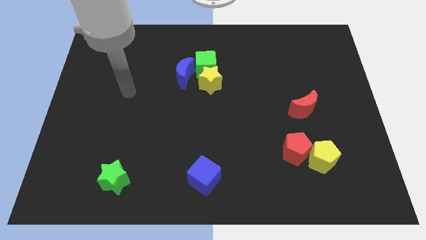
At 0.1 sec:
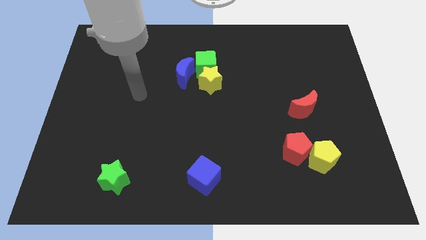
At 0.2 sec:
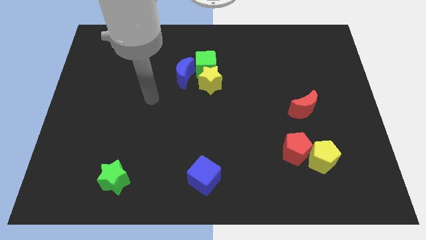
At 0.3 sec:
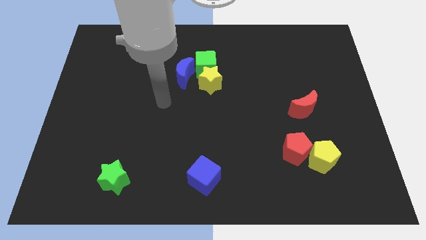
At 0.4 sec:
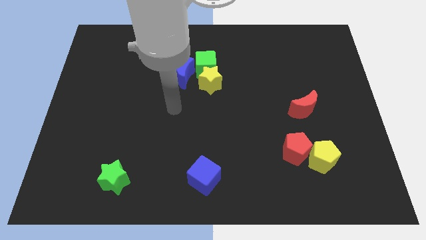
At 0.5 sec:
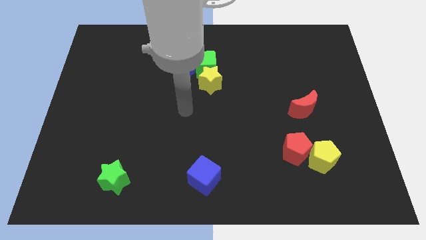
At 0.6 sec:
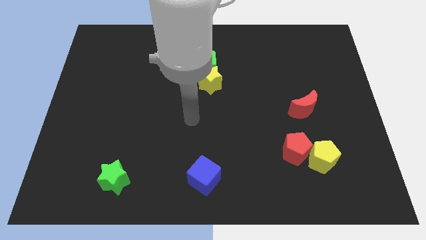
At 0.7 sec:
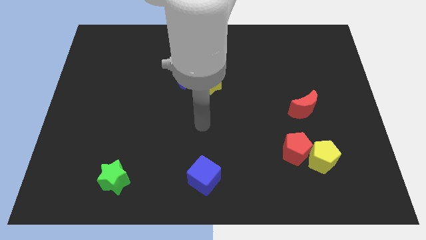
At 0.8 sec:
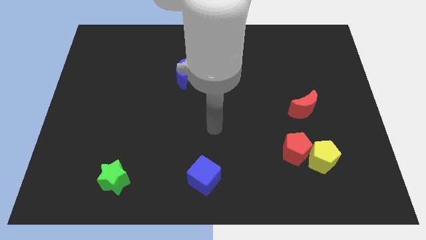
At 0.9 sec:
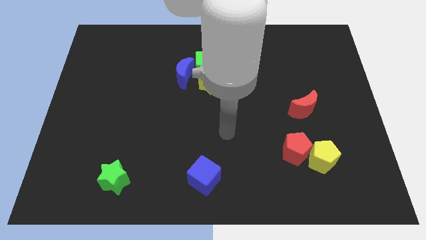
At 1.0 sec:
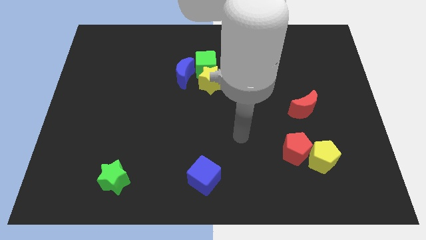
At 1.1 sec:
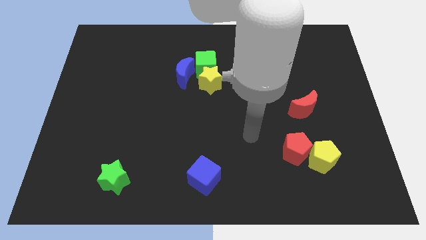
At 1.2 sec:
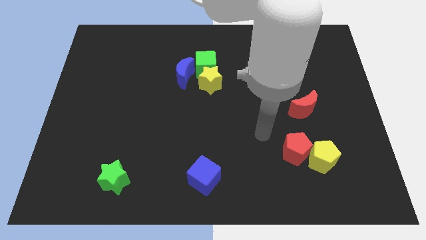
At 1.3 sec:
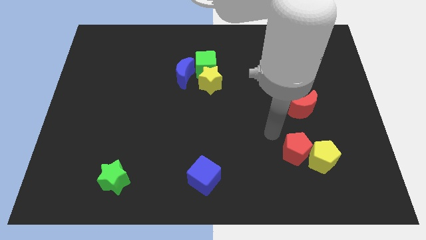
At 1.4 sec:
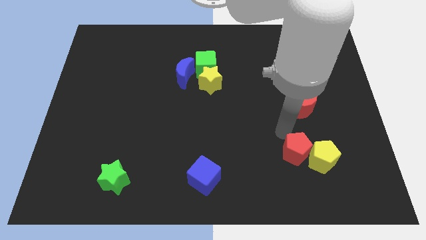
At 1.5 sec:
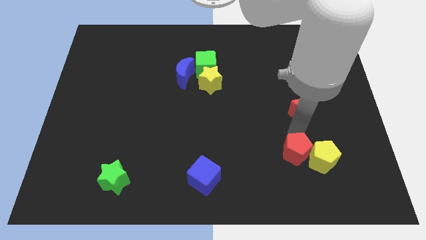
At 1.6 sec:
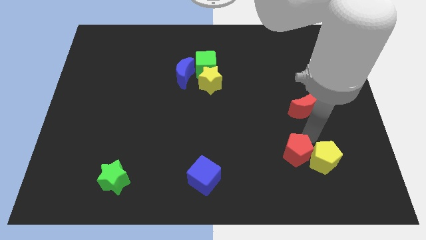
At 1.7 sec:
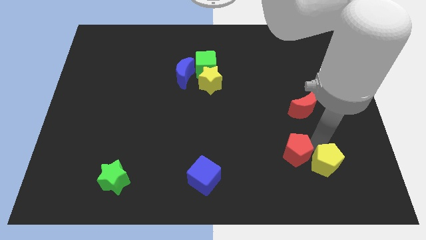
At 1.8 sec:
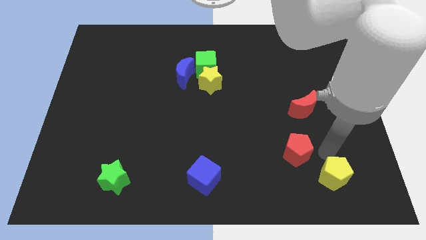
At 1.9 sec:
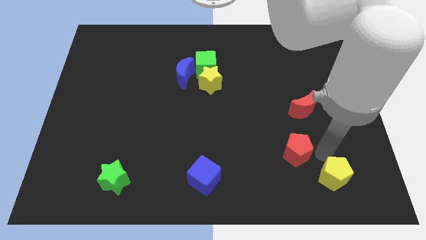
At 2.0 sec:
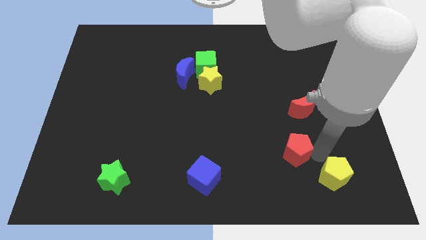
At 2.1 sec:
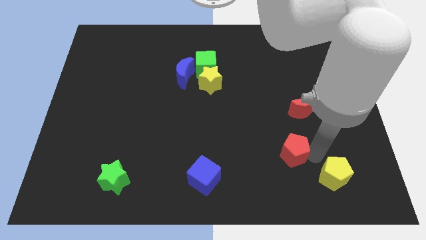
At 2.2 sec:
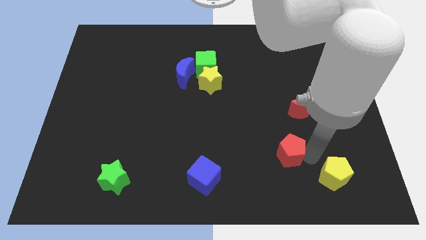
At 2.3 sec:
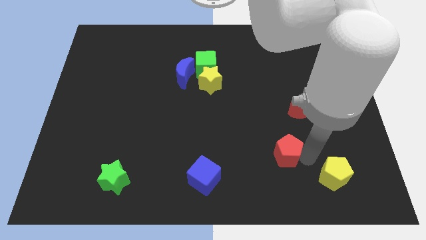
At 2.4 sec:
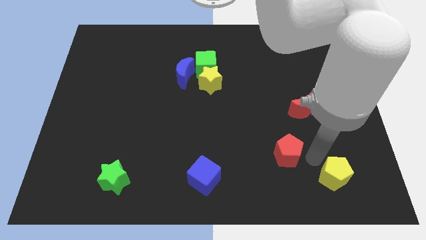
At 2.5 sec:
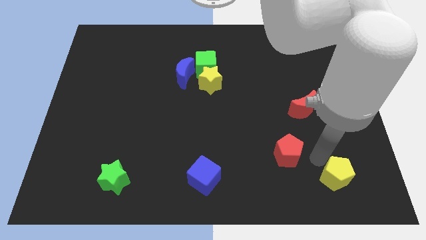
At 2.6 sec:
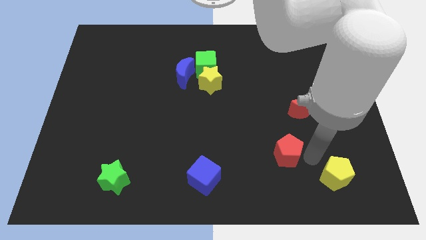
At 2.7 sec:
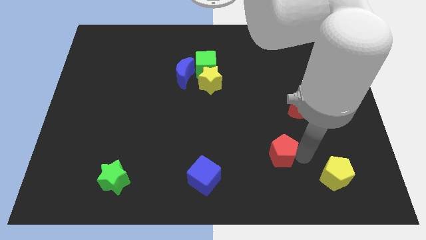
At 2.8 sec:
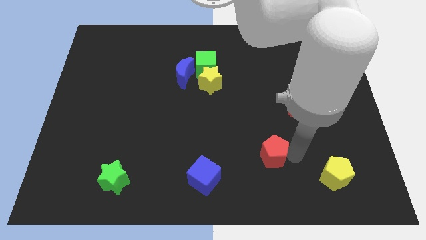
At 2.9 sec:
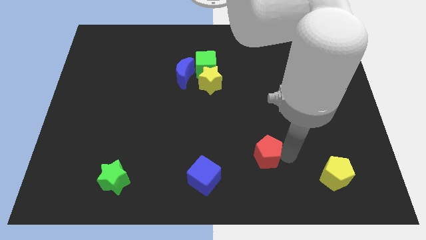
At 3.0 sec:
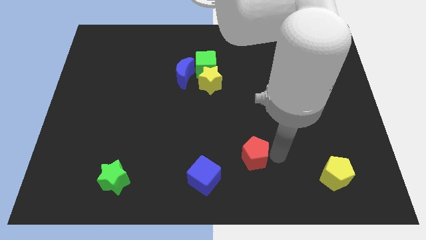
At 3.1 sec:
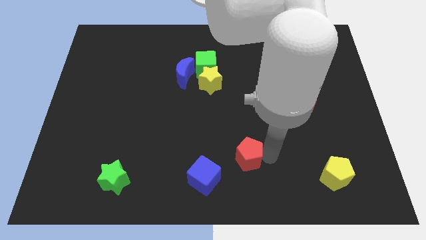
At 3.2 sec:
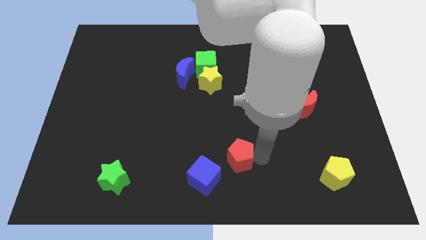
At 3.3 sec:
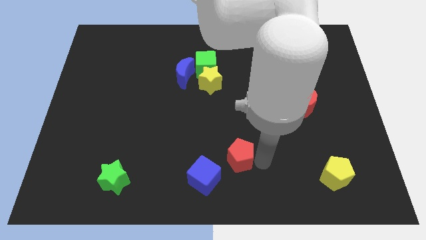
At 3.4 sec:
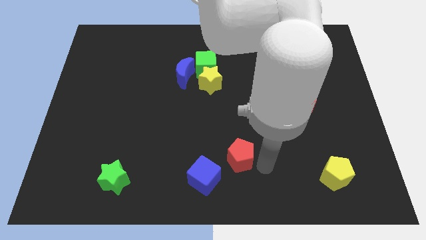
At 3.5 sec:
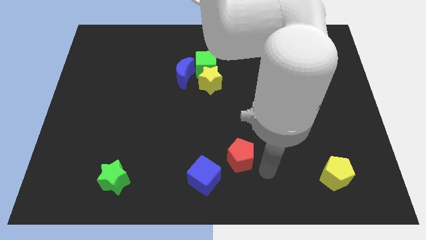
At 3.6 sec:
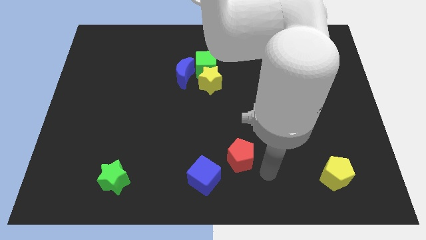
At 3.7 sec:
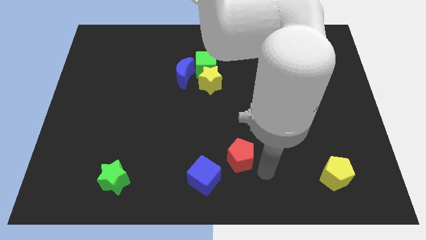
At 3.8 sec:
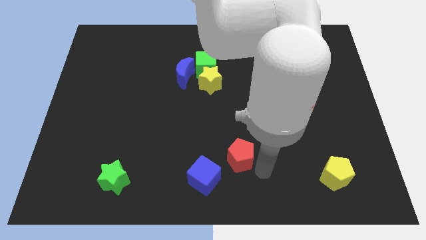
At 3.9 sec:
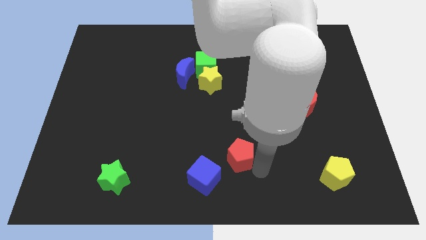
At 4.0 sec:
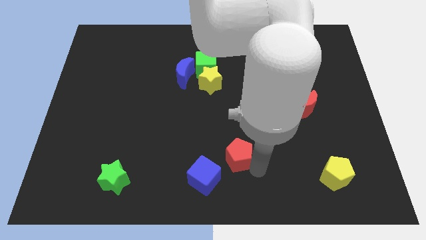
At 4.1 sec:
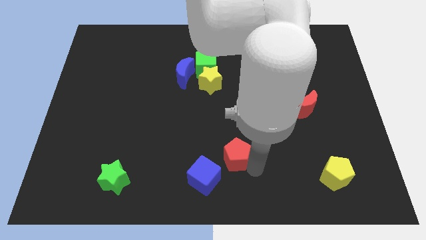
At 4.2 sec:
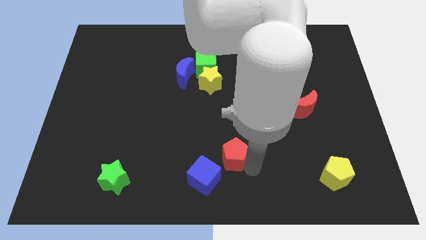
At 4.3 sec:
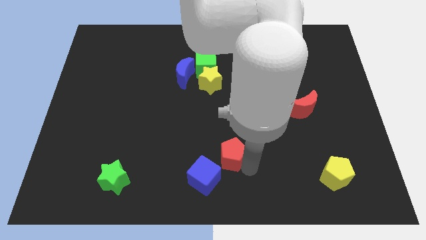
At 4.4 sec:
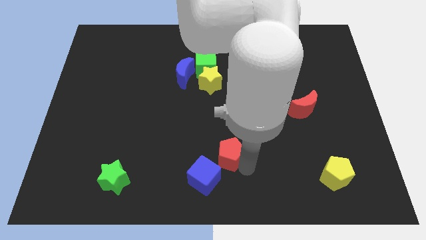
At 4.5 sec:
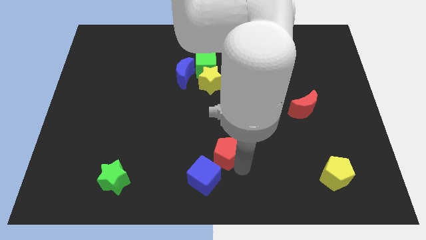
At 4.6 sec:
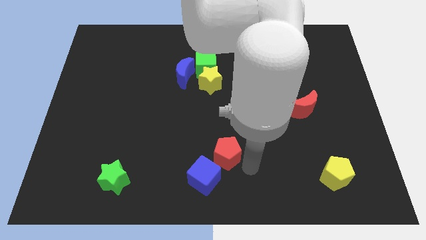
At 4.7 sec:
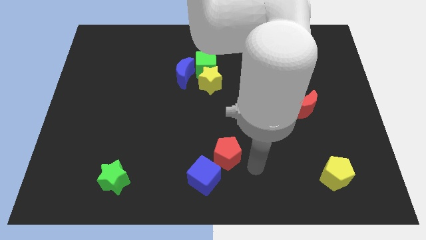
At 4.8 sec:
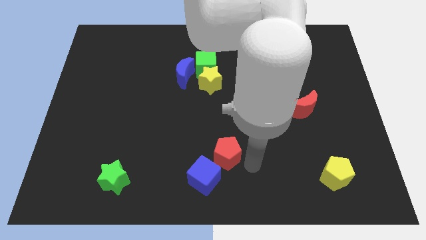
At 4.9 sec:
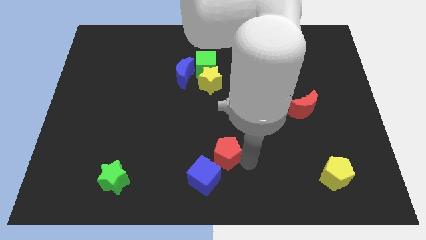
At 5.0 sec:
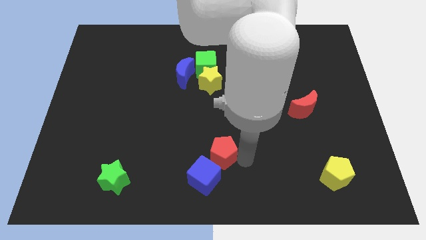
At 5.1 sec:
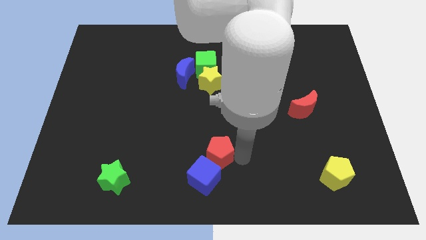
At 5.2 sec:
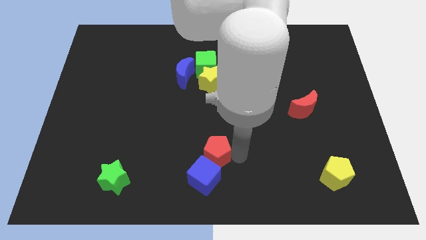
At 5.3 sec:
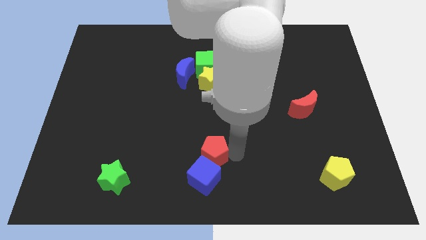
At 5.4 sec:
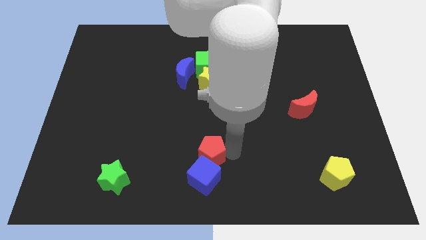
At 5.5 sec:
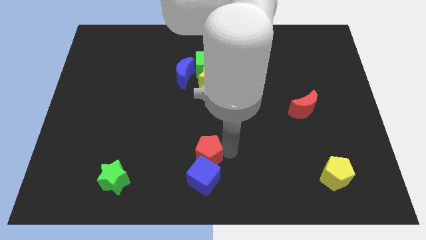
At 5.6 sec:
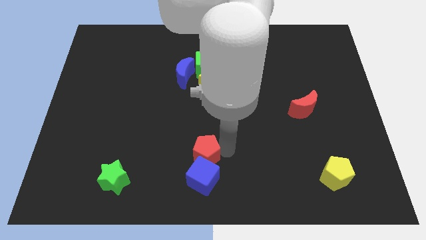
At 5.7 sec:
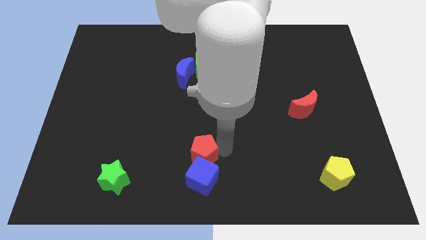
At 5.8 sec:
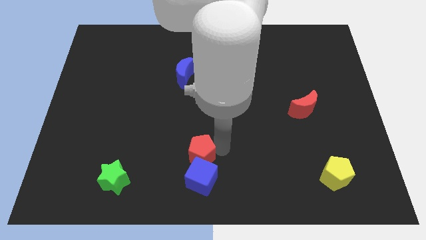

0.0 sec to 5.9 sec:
move the red pentagon to the left

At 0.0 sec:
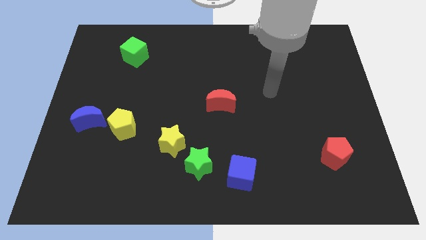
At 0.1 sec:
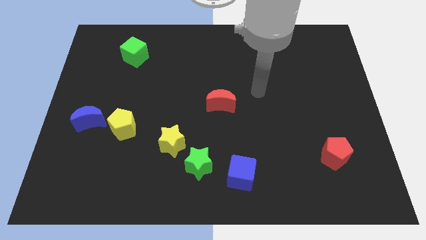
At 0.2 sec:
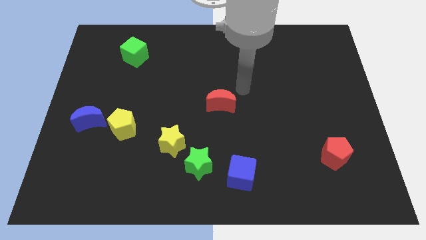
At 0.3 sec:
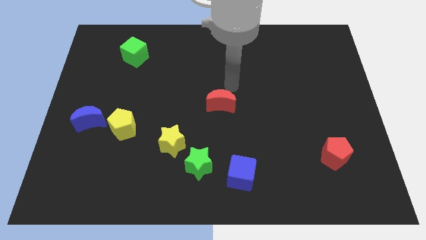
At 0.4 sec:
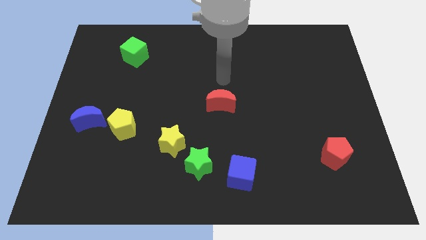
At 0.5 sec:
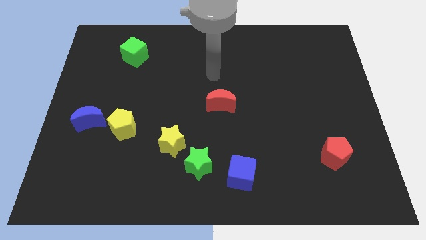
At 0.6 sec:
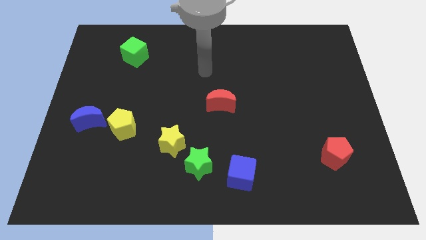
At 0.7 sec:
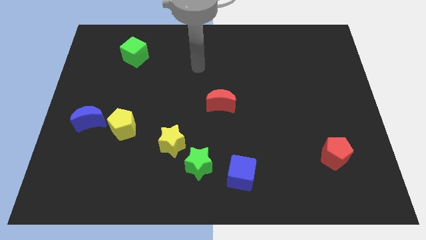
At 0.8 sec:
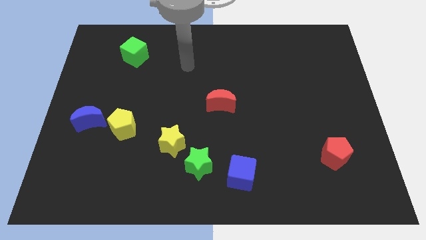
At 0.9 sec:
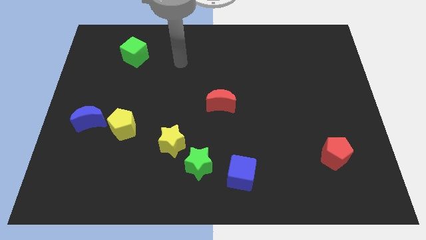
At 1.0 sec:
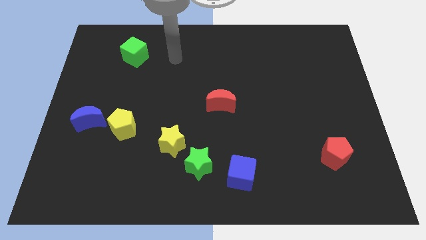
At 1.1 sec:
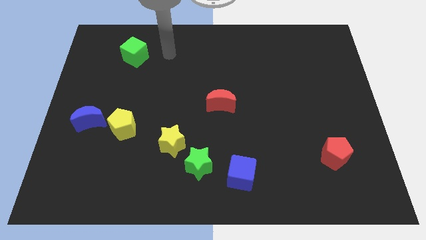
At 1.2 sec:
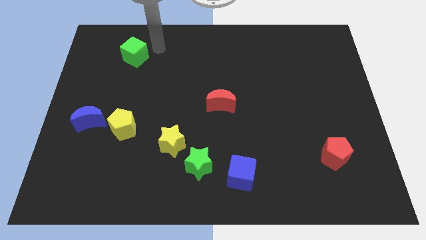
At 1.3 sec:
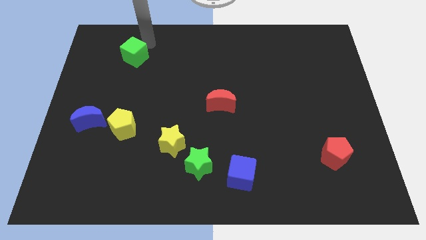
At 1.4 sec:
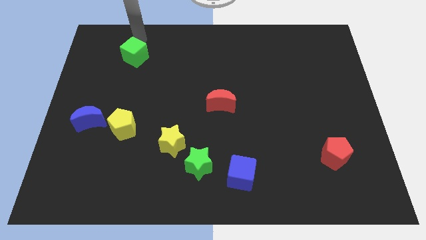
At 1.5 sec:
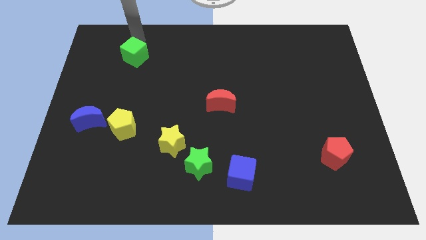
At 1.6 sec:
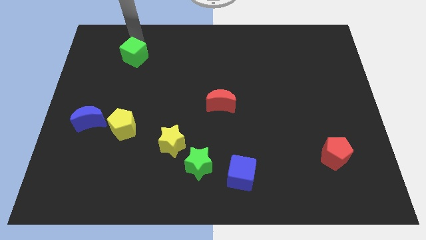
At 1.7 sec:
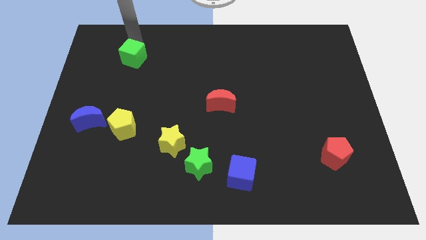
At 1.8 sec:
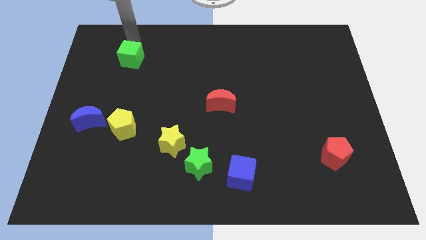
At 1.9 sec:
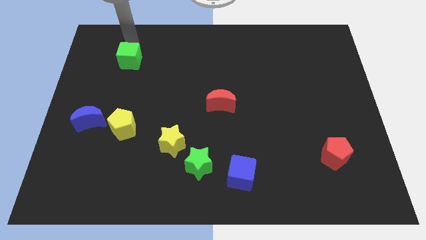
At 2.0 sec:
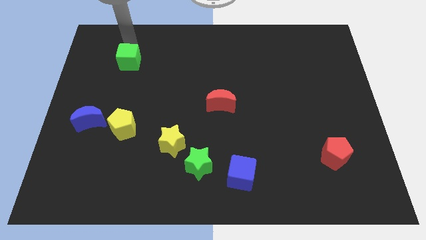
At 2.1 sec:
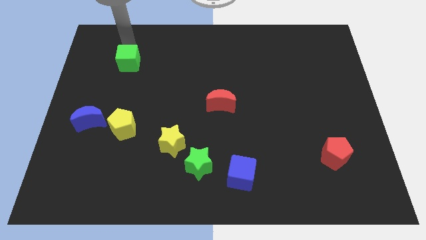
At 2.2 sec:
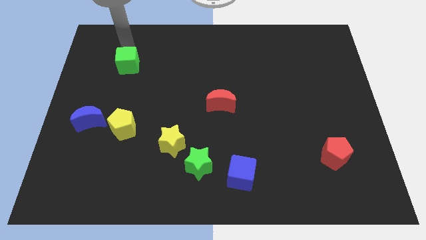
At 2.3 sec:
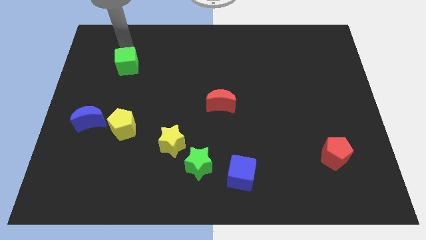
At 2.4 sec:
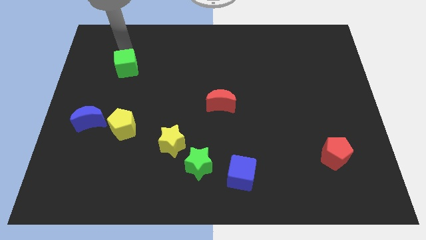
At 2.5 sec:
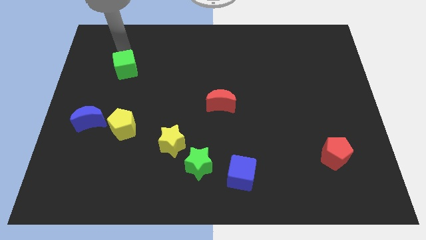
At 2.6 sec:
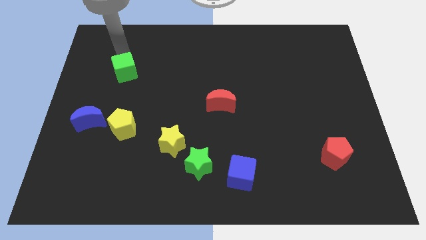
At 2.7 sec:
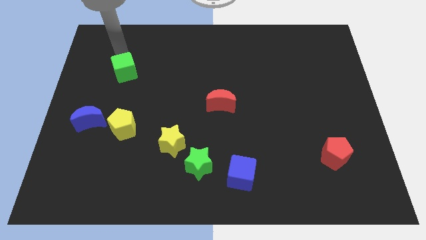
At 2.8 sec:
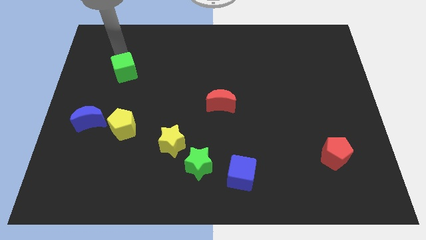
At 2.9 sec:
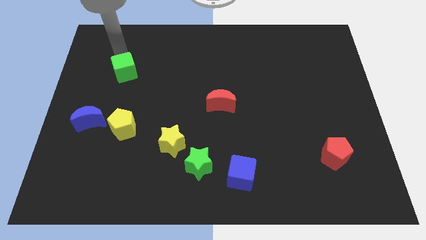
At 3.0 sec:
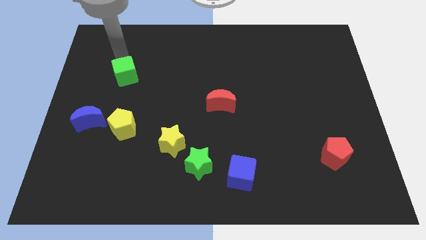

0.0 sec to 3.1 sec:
push the green cube downwards somewhat
